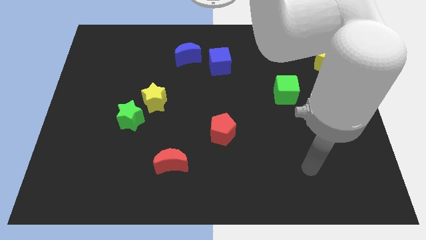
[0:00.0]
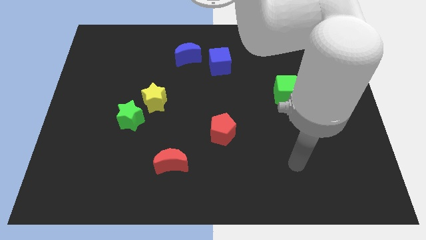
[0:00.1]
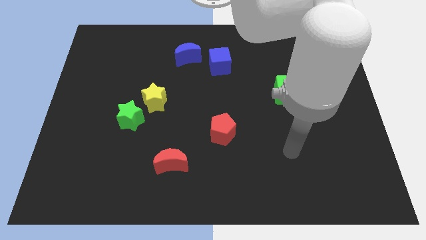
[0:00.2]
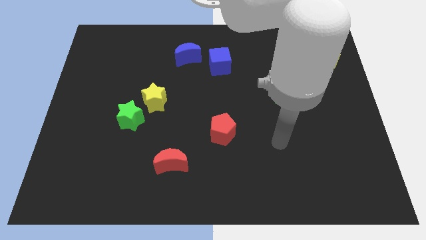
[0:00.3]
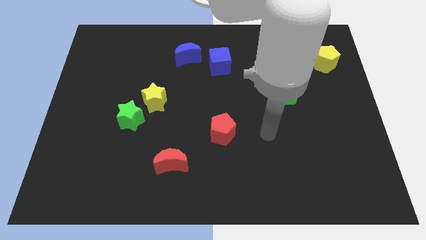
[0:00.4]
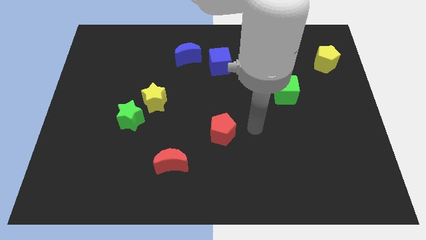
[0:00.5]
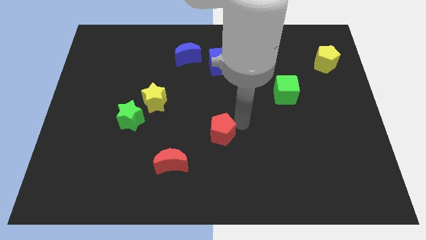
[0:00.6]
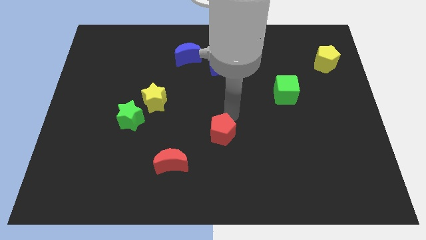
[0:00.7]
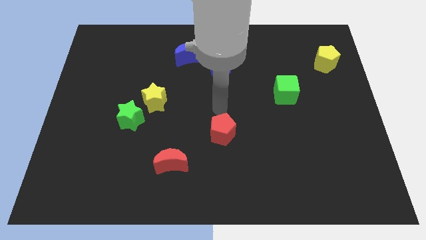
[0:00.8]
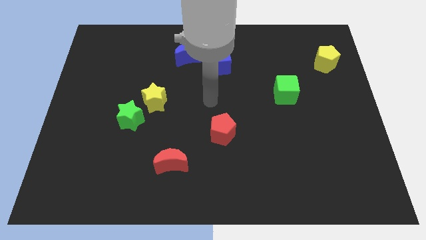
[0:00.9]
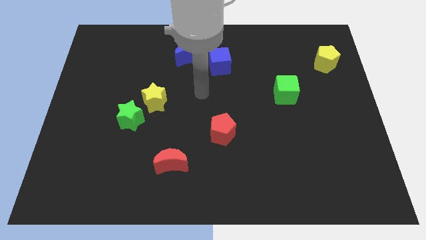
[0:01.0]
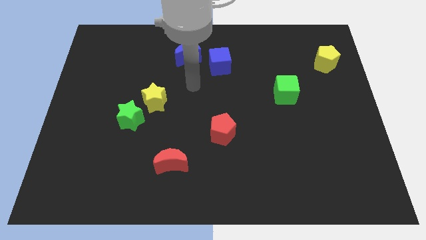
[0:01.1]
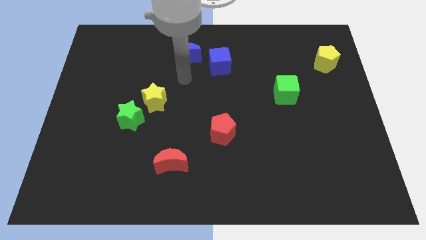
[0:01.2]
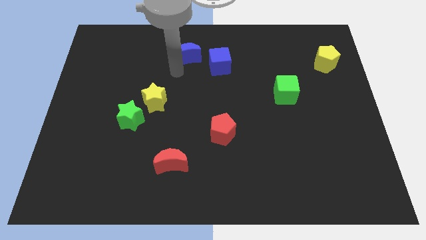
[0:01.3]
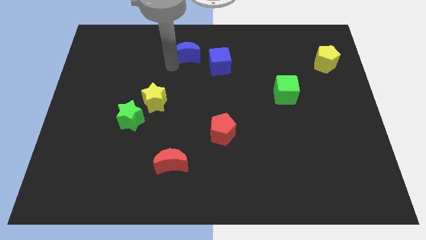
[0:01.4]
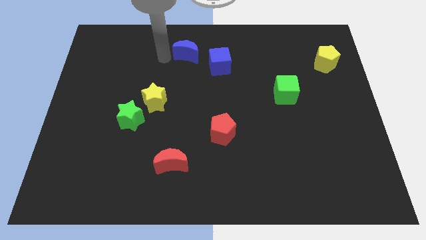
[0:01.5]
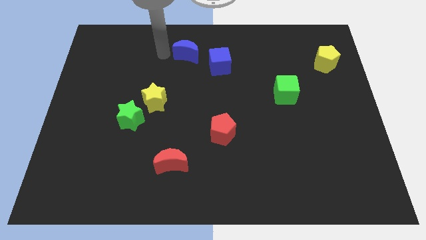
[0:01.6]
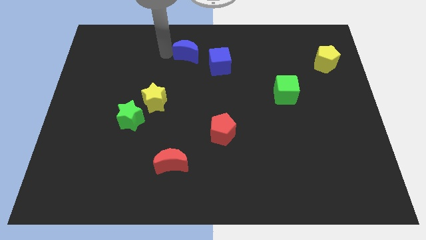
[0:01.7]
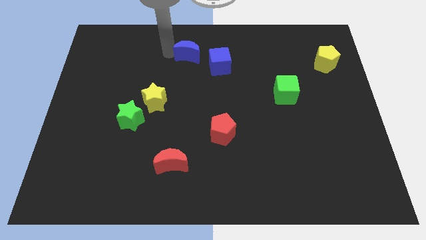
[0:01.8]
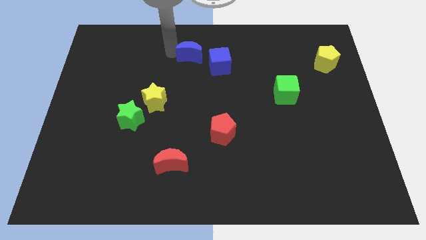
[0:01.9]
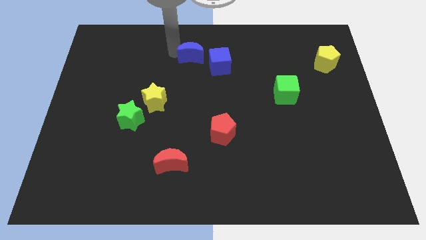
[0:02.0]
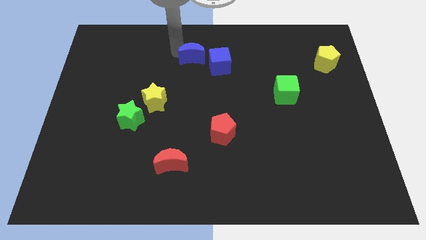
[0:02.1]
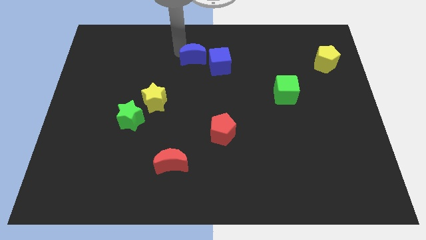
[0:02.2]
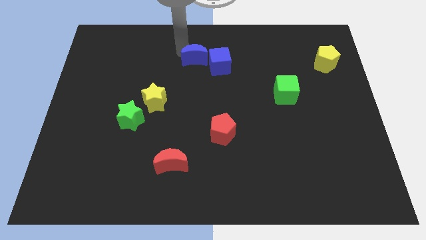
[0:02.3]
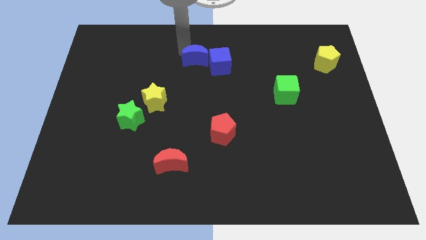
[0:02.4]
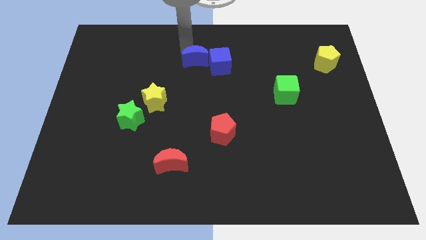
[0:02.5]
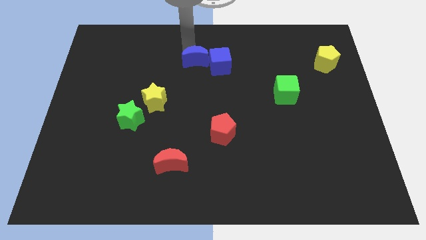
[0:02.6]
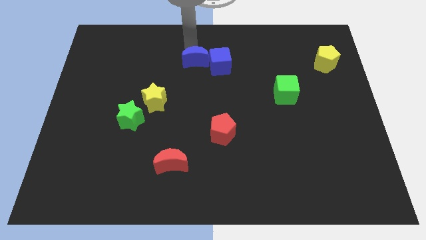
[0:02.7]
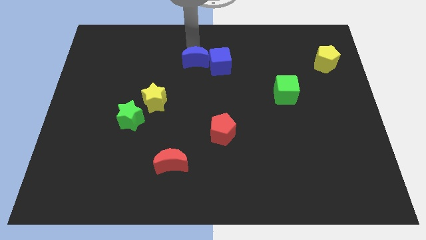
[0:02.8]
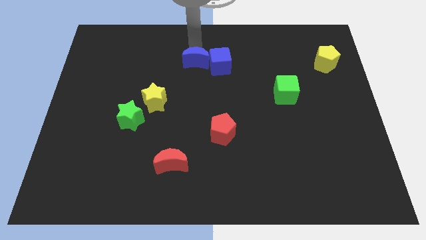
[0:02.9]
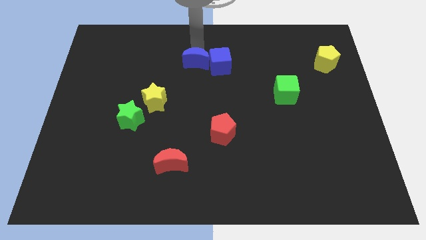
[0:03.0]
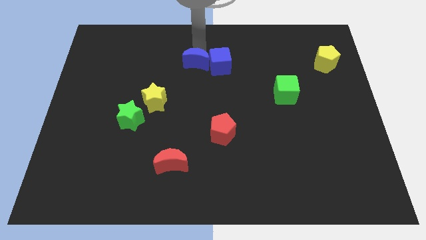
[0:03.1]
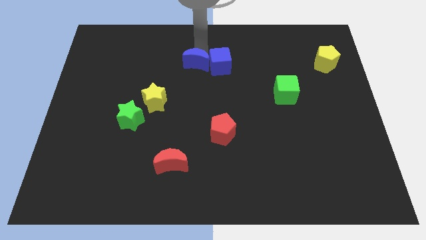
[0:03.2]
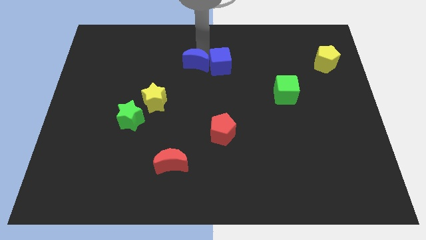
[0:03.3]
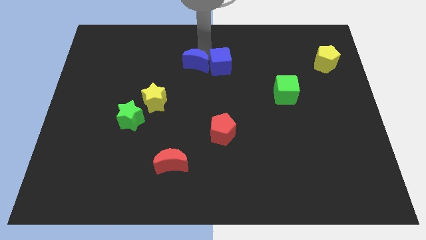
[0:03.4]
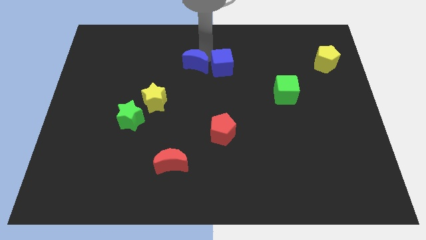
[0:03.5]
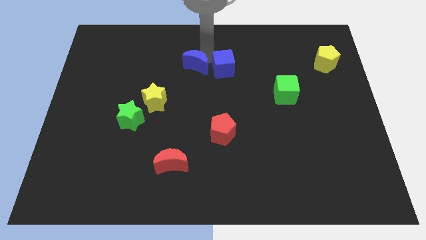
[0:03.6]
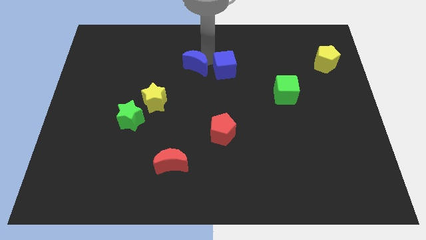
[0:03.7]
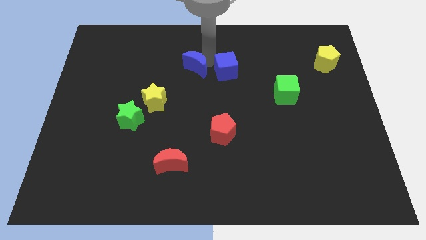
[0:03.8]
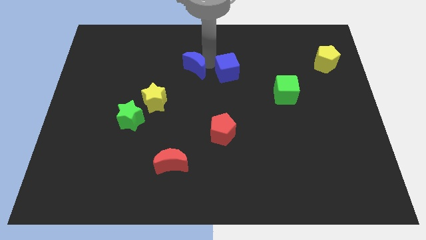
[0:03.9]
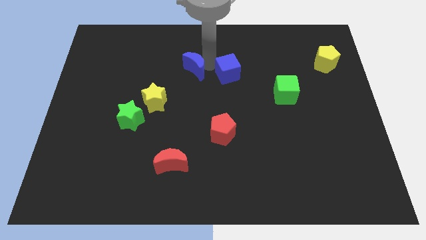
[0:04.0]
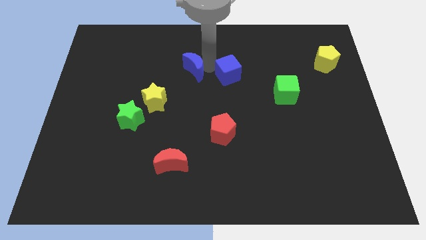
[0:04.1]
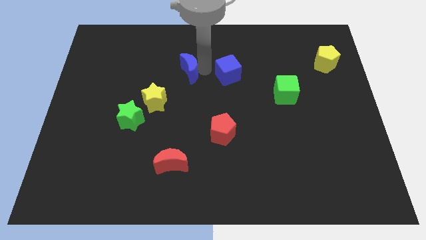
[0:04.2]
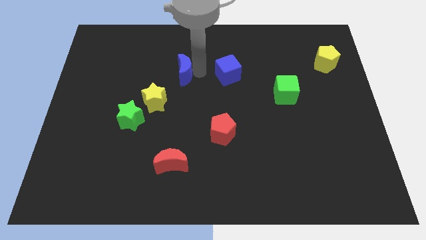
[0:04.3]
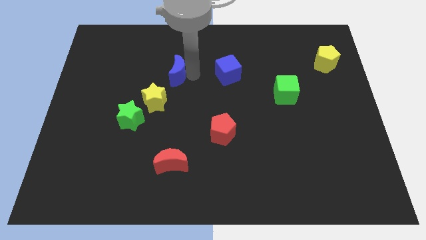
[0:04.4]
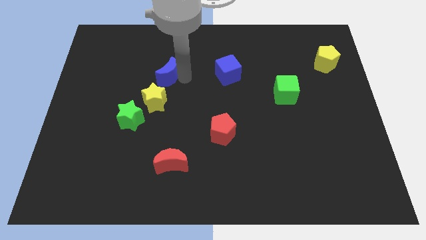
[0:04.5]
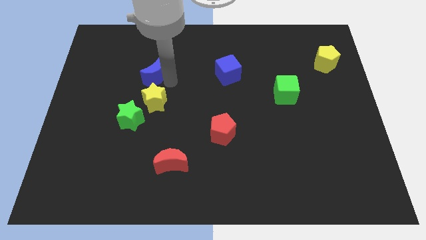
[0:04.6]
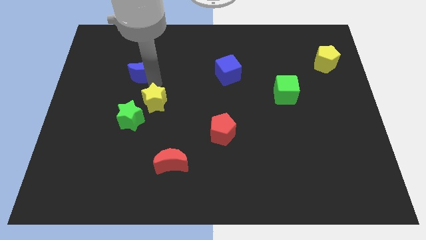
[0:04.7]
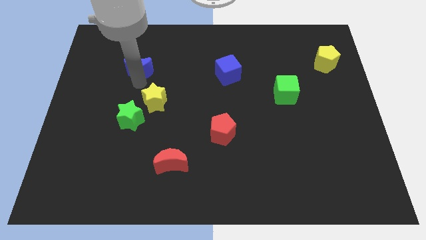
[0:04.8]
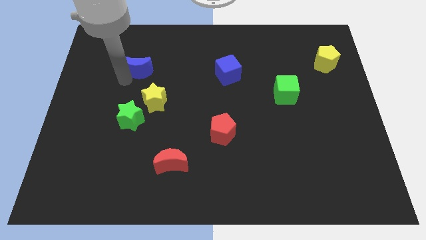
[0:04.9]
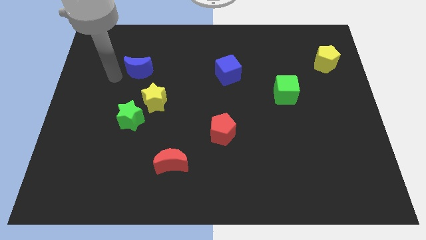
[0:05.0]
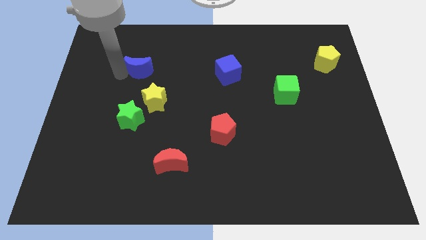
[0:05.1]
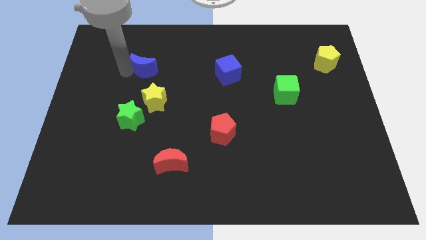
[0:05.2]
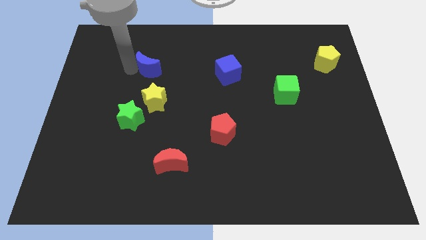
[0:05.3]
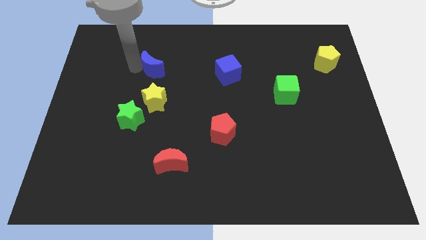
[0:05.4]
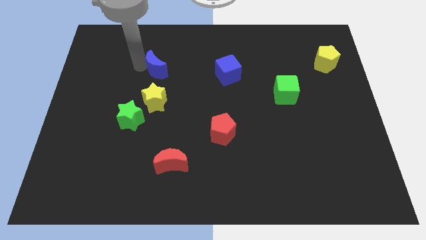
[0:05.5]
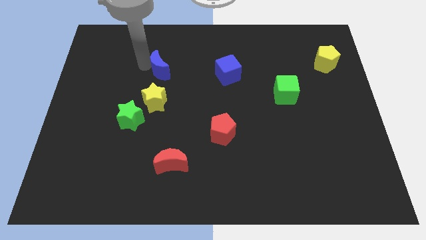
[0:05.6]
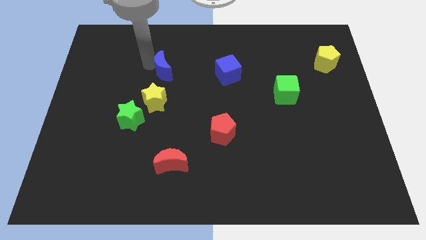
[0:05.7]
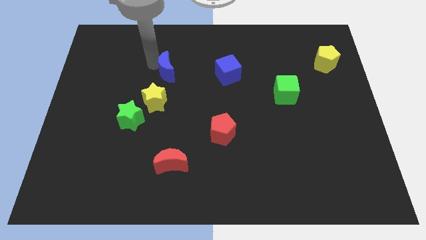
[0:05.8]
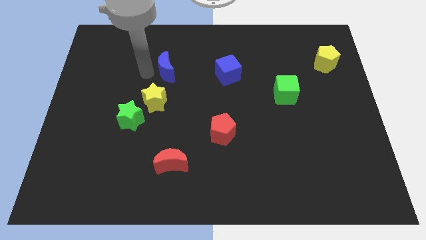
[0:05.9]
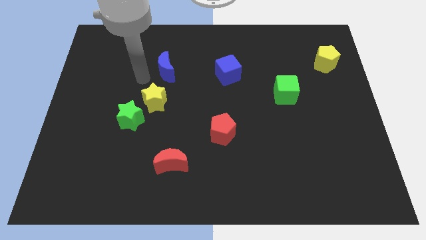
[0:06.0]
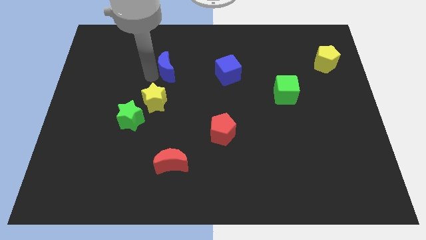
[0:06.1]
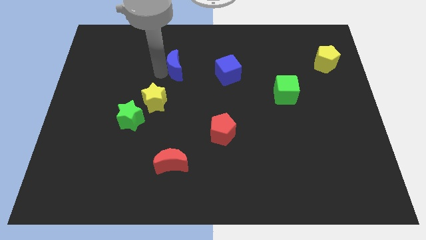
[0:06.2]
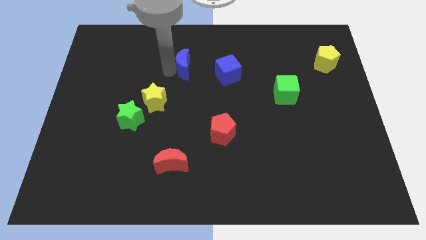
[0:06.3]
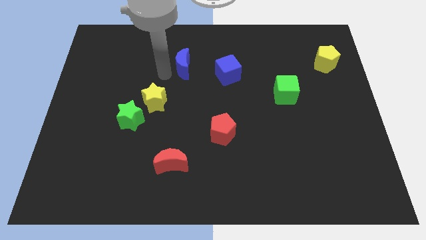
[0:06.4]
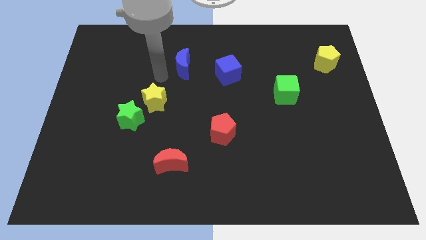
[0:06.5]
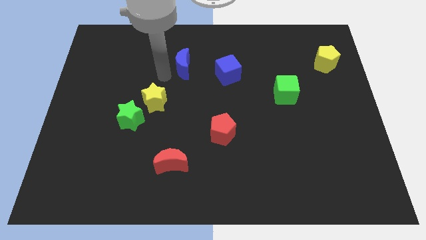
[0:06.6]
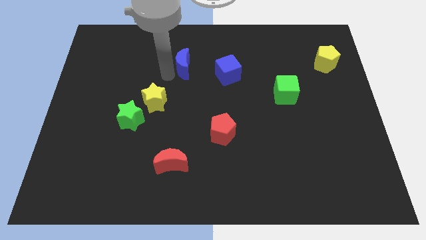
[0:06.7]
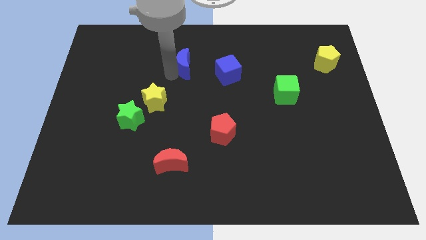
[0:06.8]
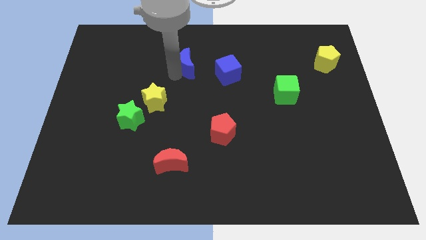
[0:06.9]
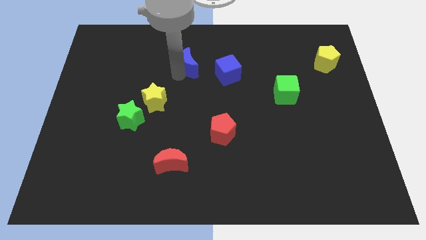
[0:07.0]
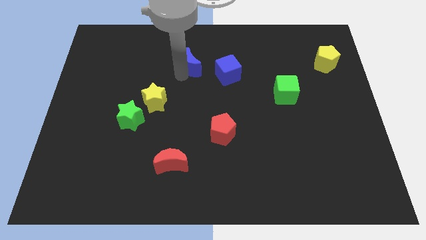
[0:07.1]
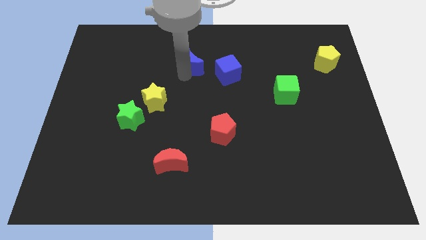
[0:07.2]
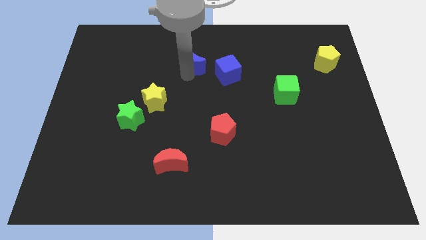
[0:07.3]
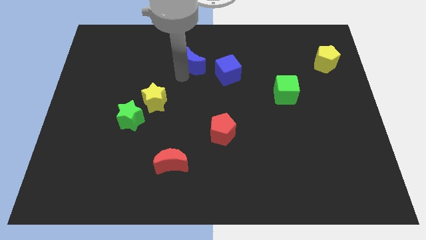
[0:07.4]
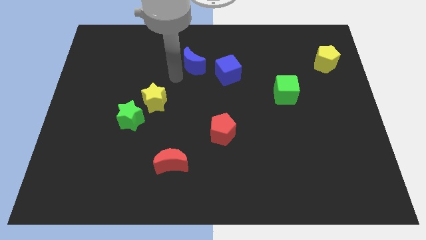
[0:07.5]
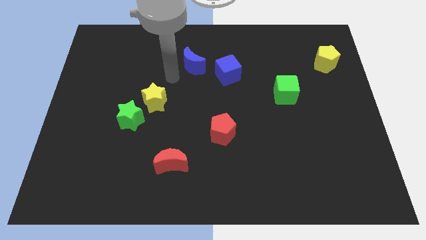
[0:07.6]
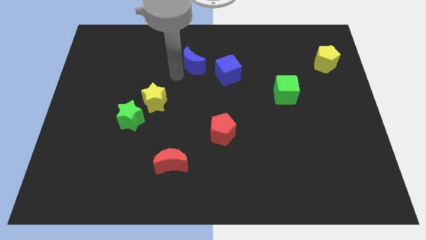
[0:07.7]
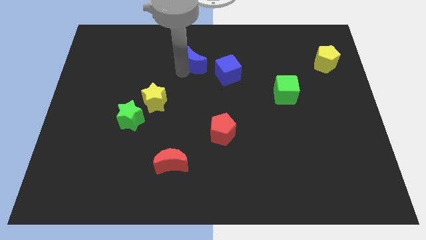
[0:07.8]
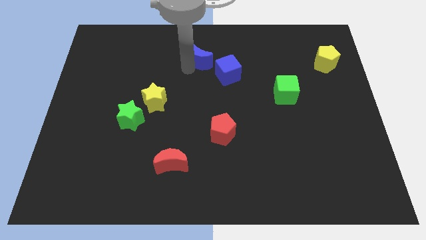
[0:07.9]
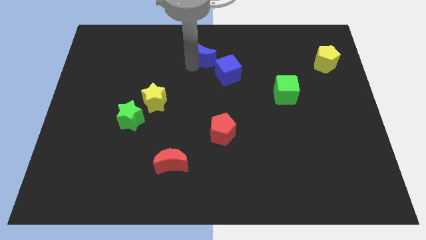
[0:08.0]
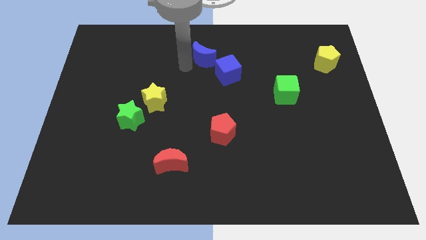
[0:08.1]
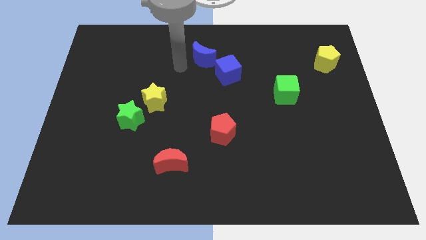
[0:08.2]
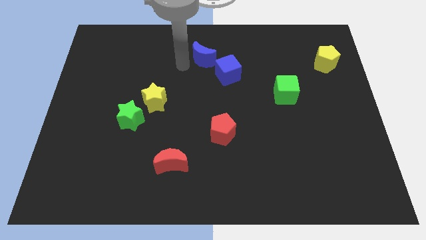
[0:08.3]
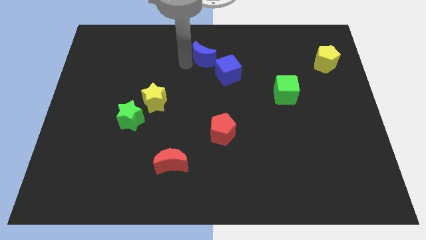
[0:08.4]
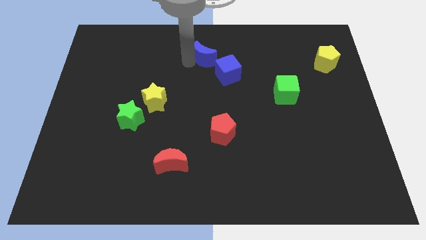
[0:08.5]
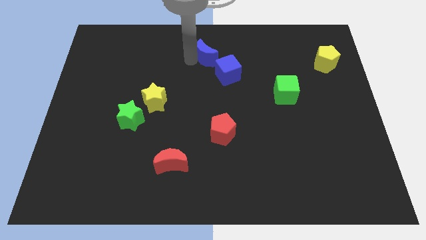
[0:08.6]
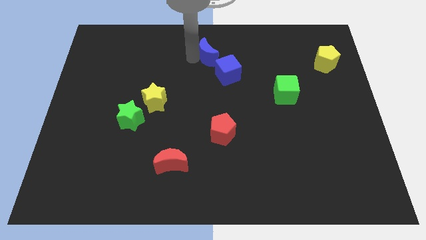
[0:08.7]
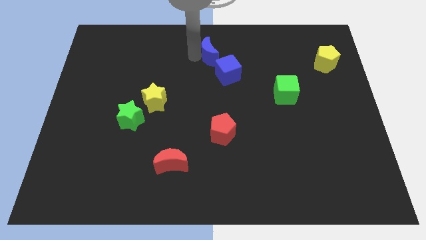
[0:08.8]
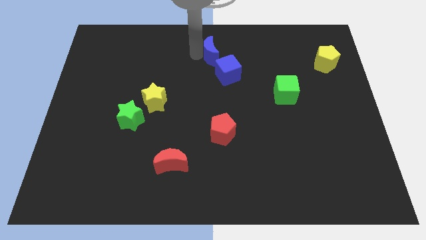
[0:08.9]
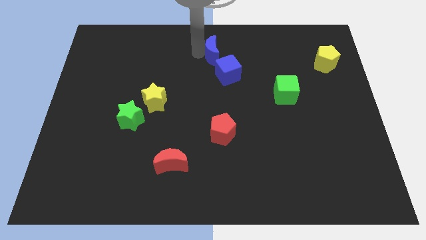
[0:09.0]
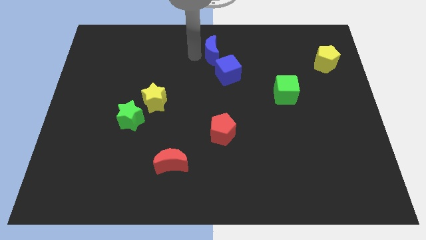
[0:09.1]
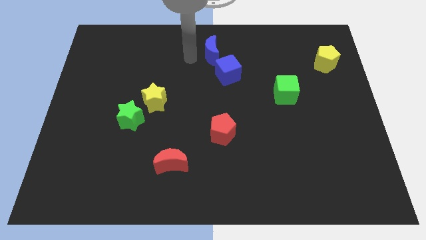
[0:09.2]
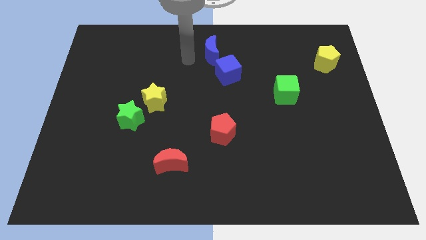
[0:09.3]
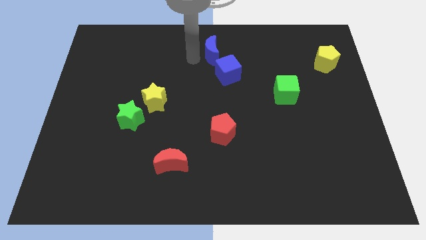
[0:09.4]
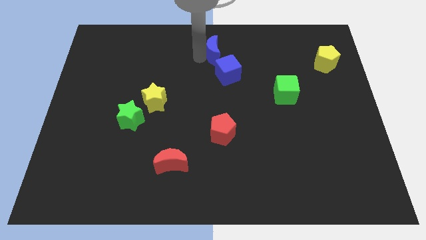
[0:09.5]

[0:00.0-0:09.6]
slide the blue moon to the right slightly
